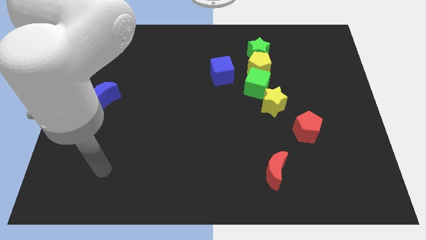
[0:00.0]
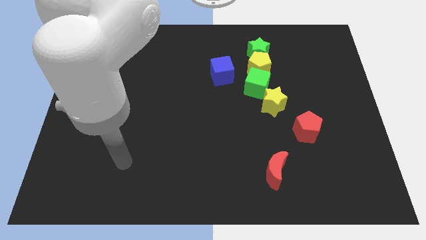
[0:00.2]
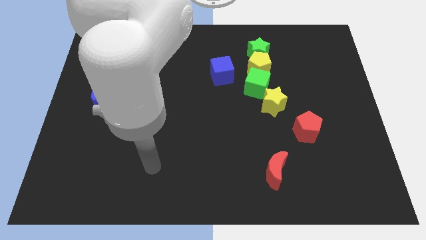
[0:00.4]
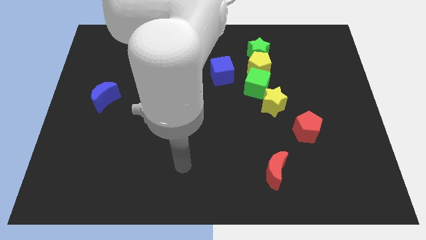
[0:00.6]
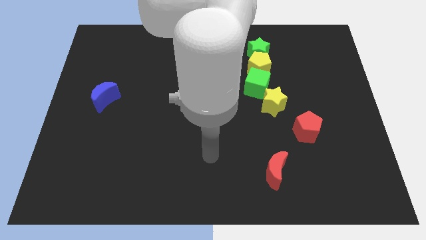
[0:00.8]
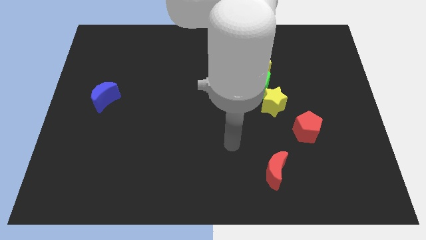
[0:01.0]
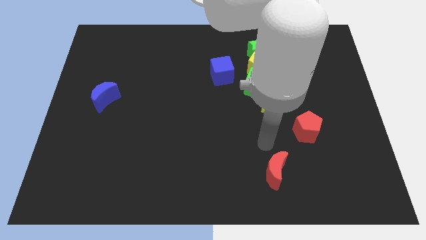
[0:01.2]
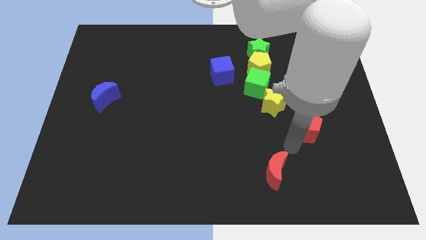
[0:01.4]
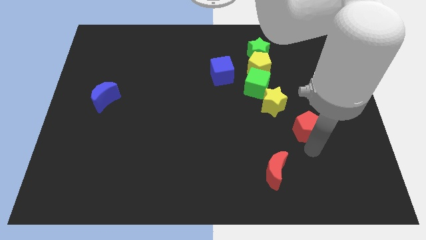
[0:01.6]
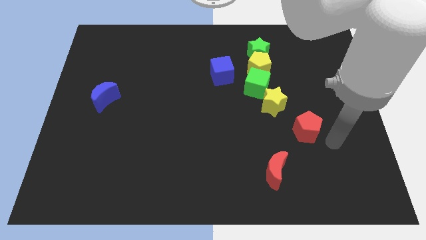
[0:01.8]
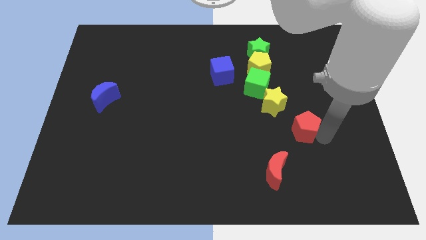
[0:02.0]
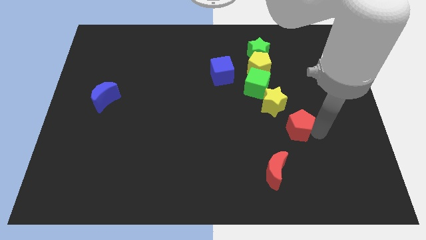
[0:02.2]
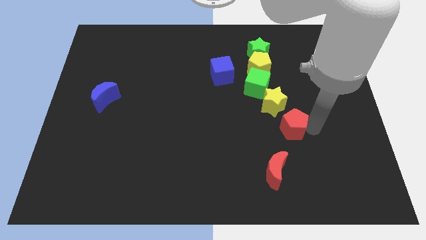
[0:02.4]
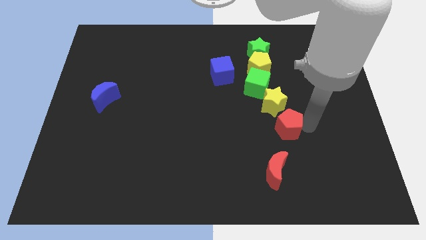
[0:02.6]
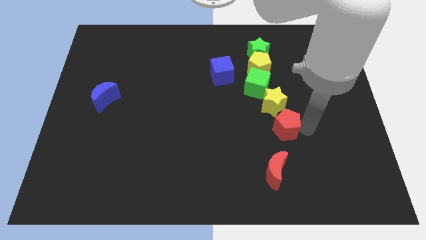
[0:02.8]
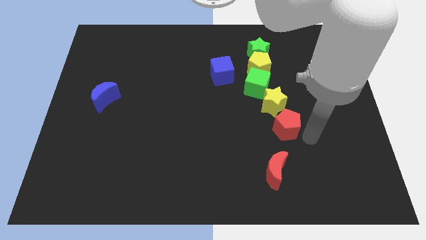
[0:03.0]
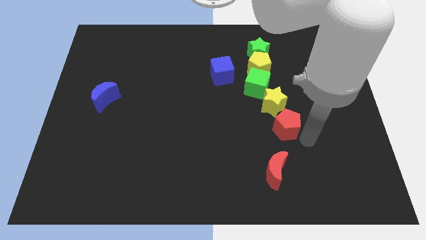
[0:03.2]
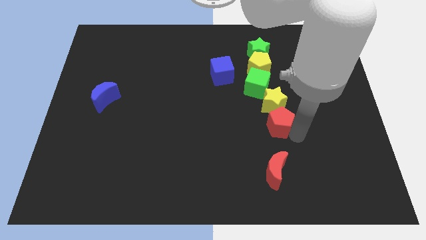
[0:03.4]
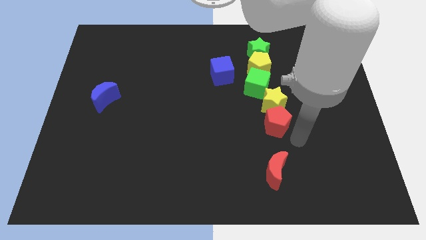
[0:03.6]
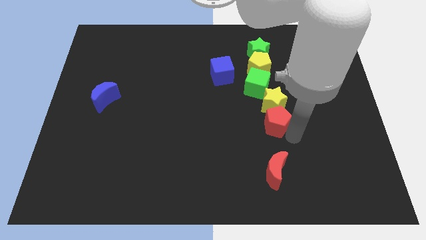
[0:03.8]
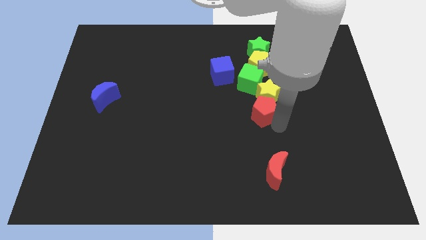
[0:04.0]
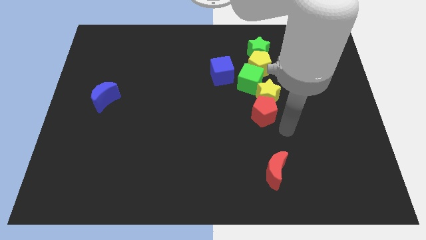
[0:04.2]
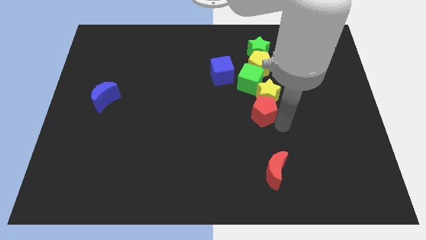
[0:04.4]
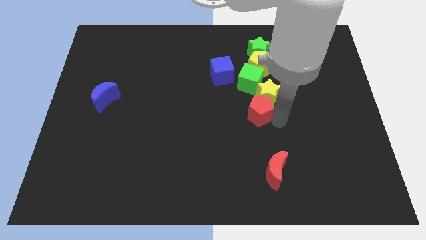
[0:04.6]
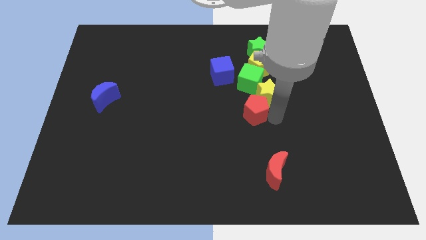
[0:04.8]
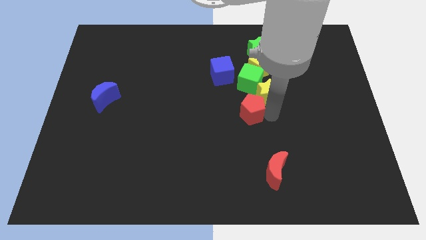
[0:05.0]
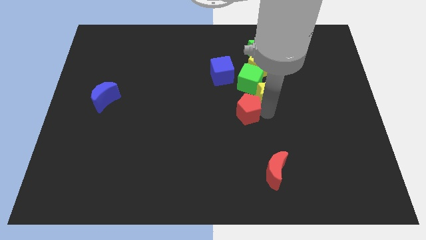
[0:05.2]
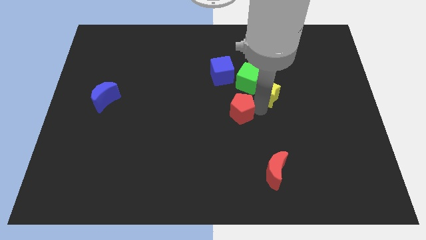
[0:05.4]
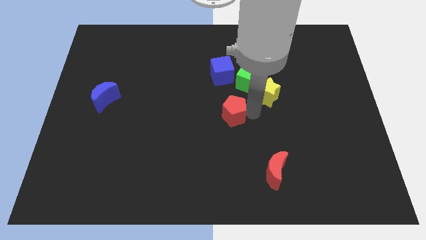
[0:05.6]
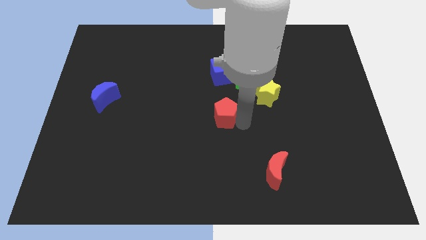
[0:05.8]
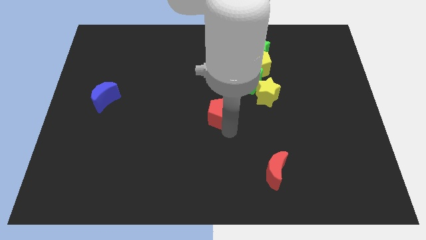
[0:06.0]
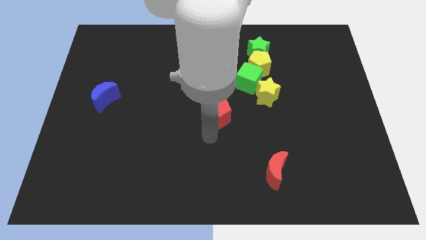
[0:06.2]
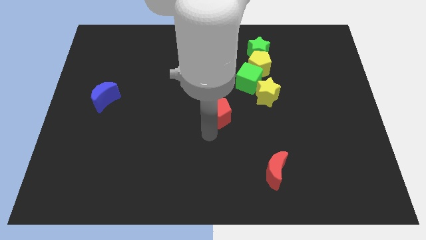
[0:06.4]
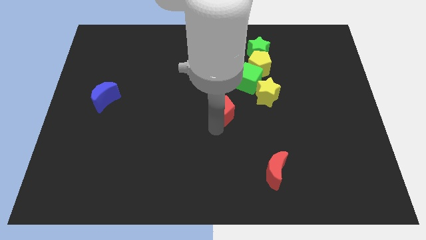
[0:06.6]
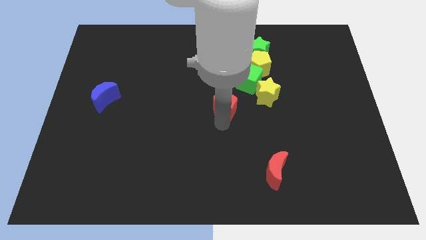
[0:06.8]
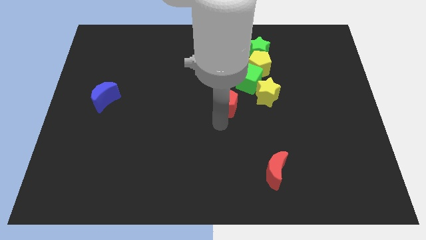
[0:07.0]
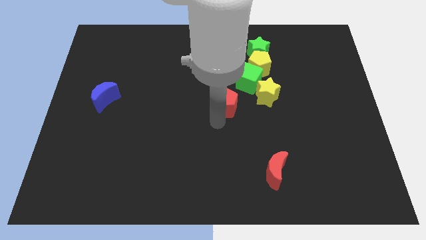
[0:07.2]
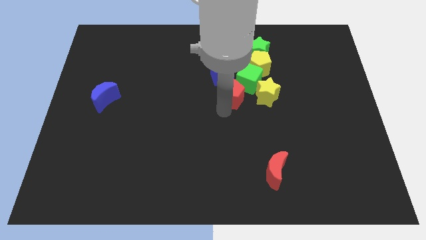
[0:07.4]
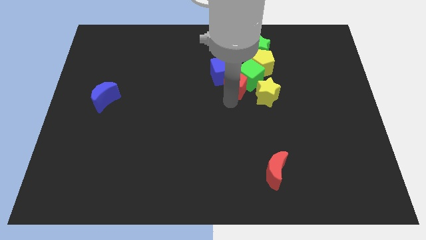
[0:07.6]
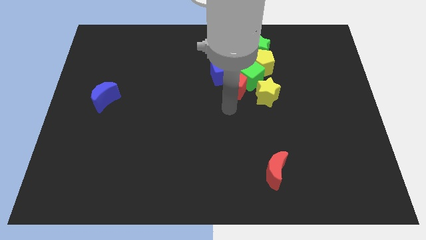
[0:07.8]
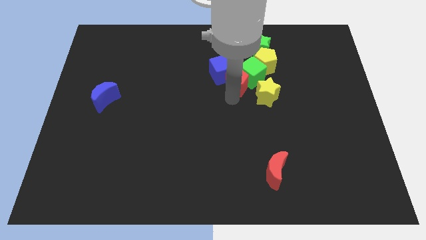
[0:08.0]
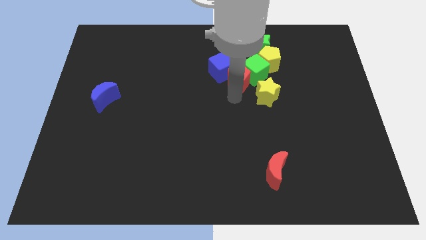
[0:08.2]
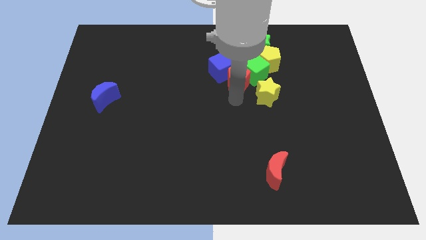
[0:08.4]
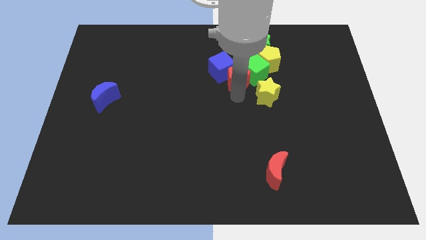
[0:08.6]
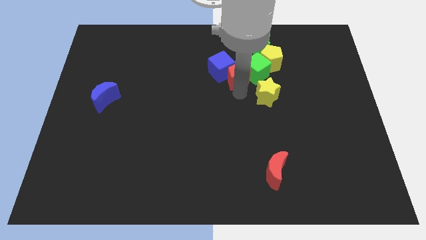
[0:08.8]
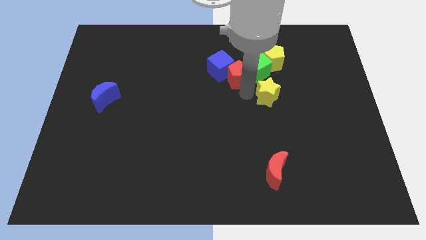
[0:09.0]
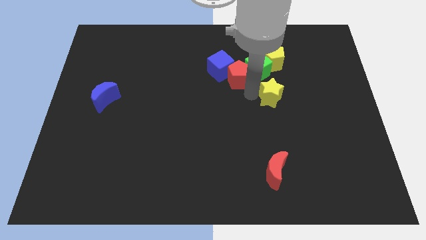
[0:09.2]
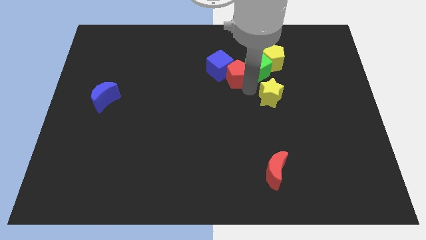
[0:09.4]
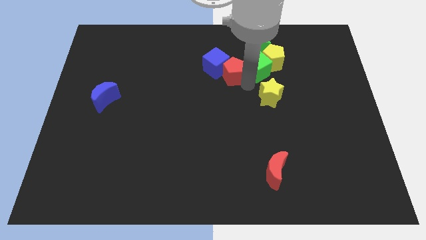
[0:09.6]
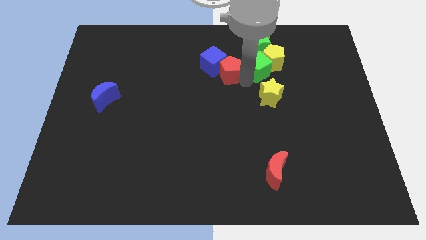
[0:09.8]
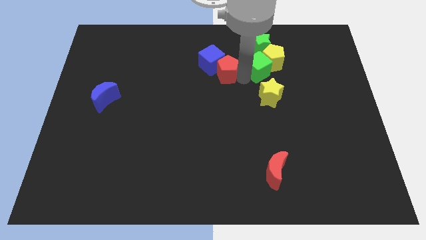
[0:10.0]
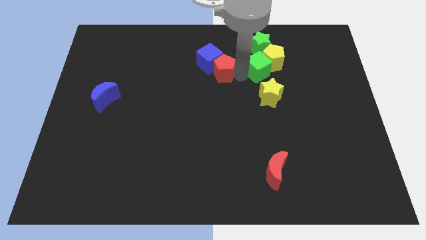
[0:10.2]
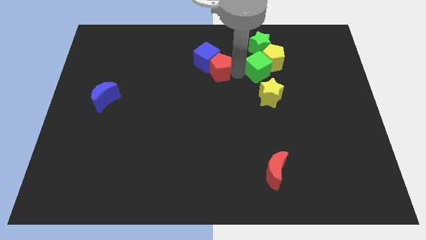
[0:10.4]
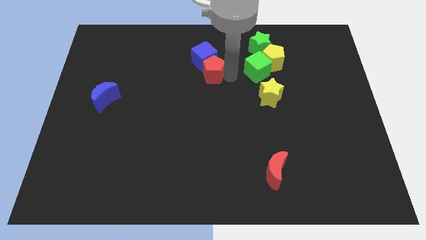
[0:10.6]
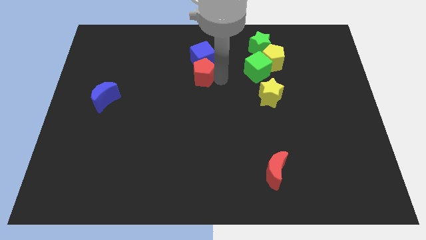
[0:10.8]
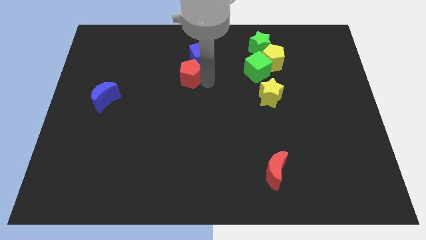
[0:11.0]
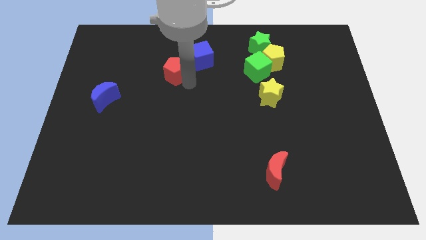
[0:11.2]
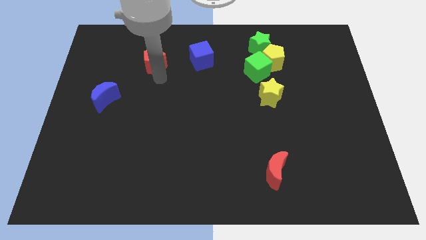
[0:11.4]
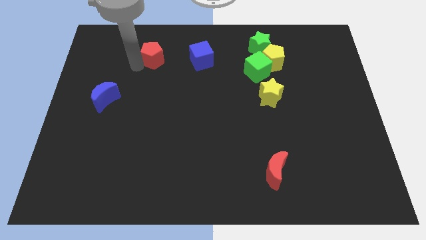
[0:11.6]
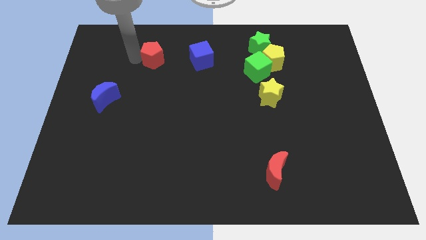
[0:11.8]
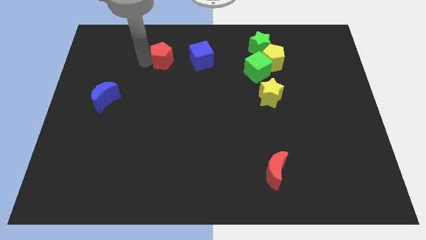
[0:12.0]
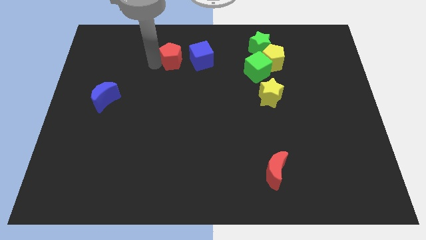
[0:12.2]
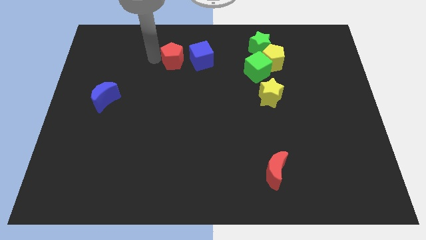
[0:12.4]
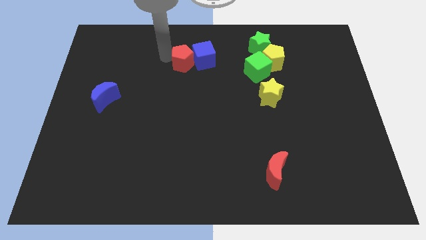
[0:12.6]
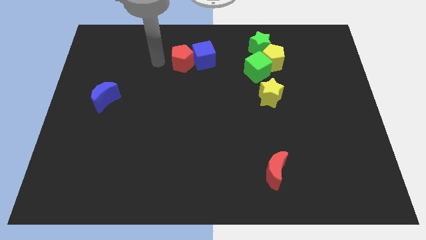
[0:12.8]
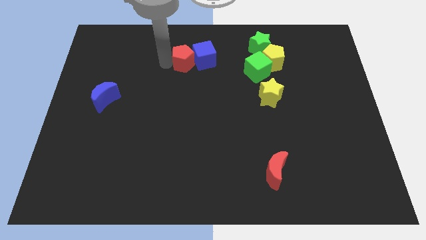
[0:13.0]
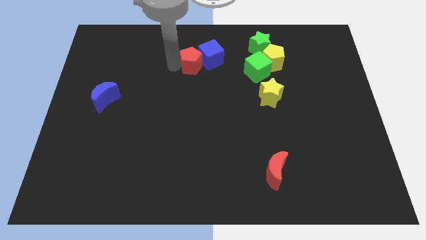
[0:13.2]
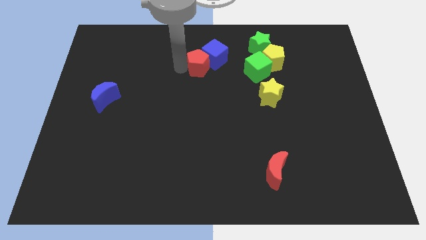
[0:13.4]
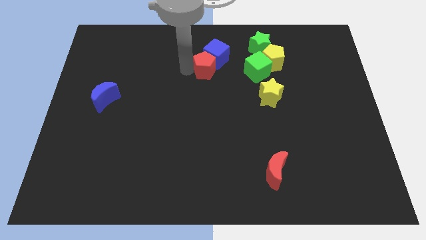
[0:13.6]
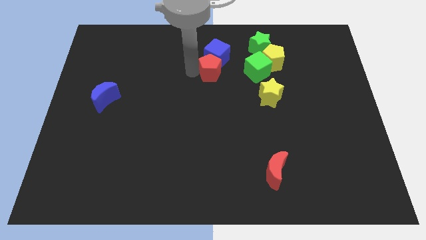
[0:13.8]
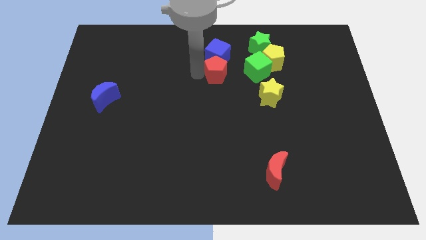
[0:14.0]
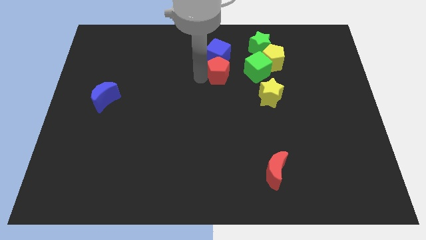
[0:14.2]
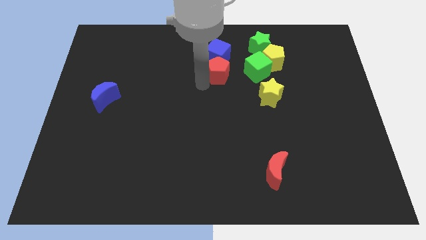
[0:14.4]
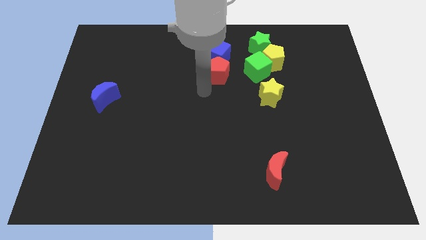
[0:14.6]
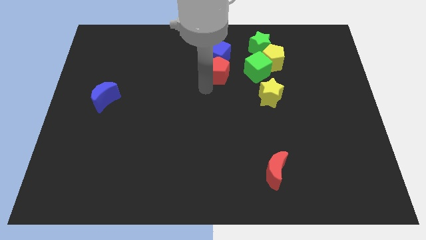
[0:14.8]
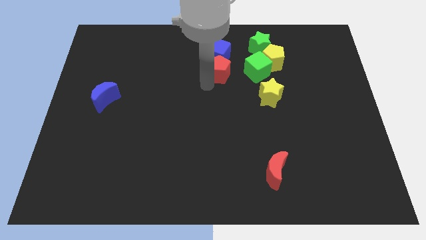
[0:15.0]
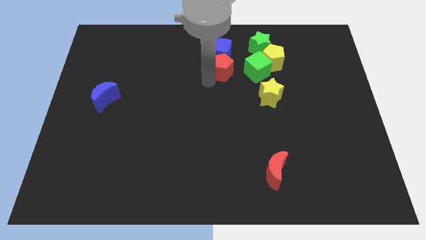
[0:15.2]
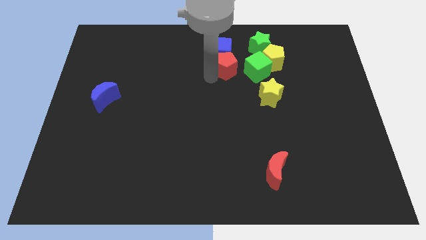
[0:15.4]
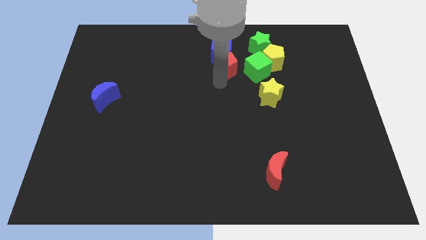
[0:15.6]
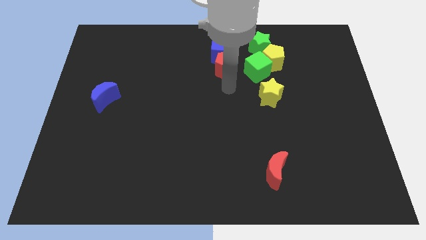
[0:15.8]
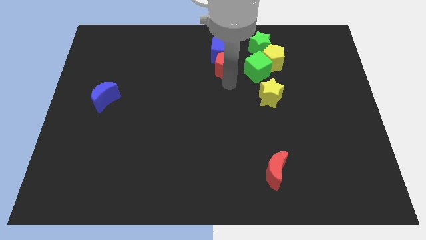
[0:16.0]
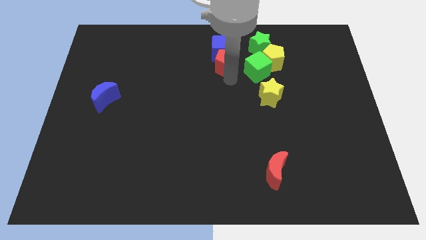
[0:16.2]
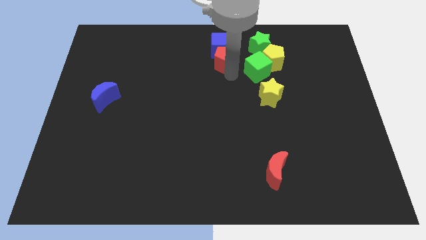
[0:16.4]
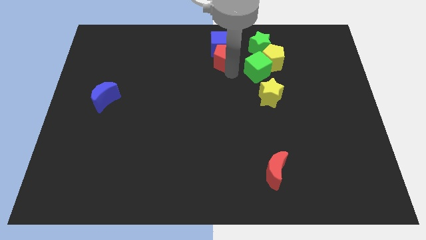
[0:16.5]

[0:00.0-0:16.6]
slide the red pentagon to the left side of the green star
